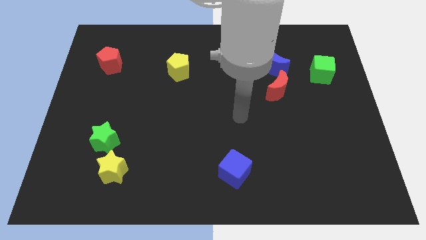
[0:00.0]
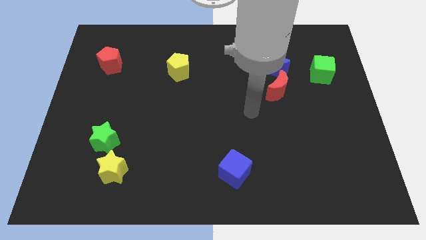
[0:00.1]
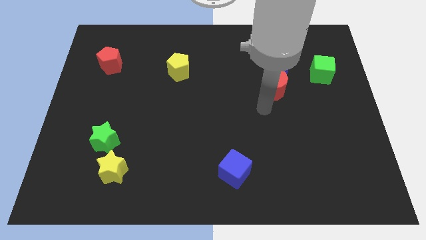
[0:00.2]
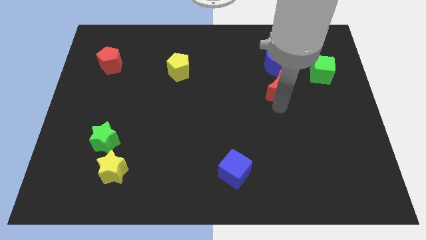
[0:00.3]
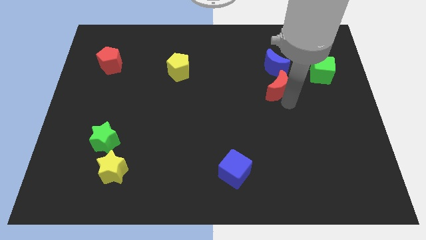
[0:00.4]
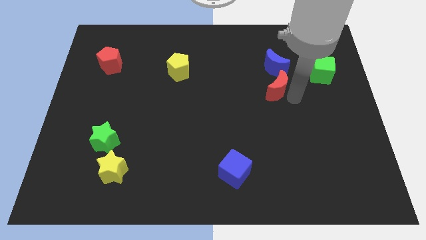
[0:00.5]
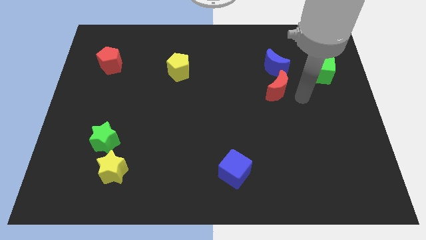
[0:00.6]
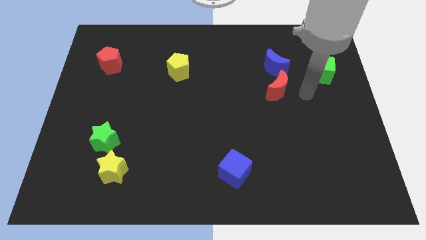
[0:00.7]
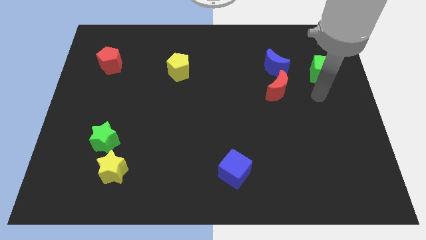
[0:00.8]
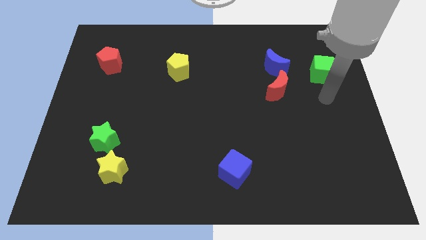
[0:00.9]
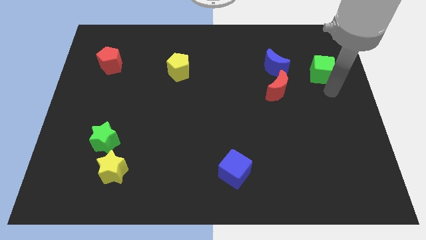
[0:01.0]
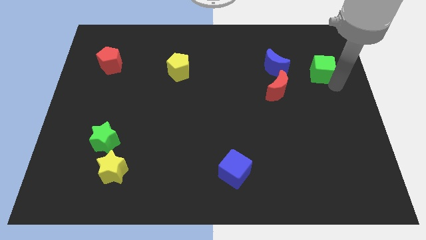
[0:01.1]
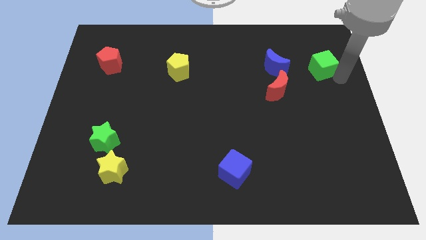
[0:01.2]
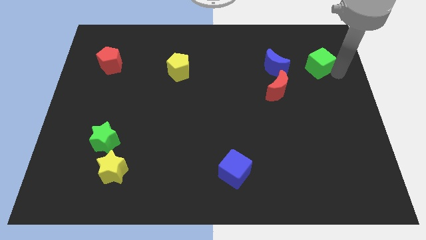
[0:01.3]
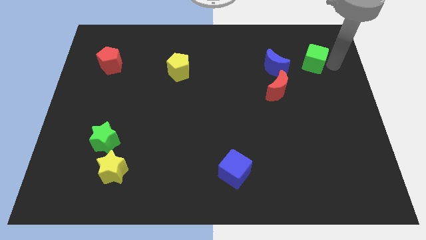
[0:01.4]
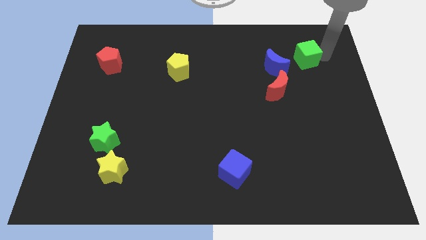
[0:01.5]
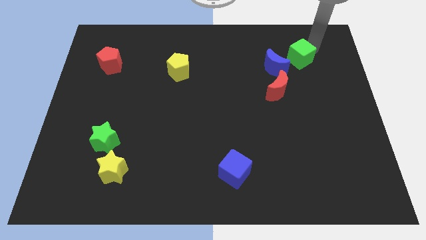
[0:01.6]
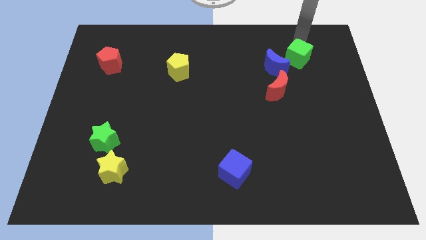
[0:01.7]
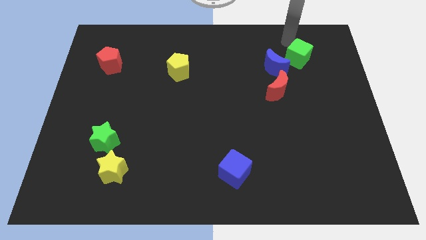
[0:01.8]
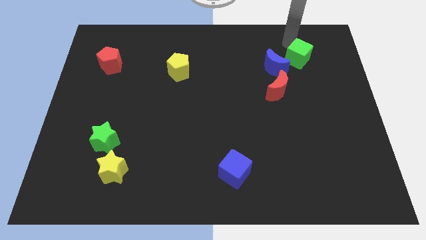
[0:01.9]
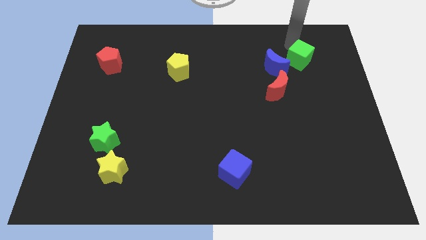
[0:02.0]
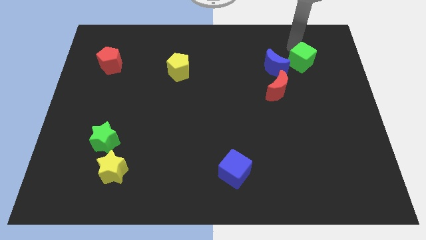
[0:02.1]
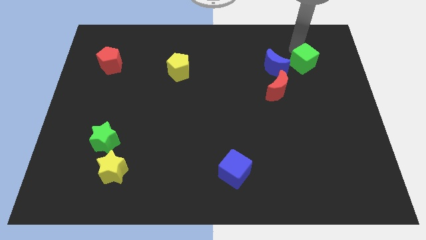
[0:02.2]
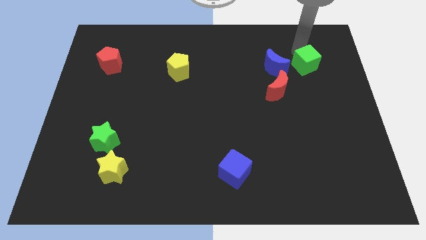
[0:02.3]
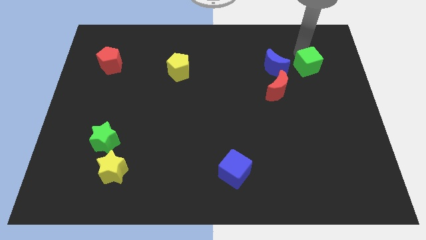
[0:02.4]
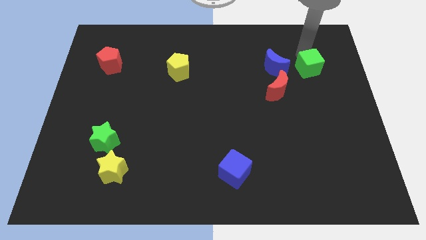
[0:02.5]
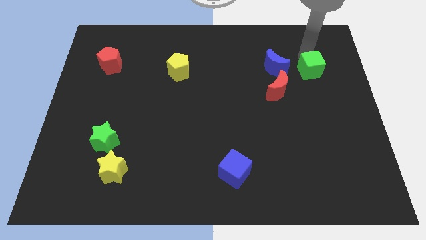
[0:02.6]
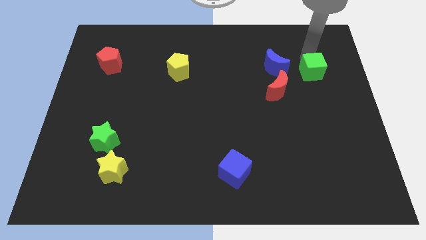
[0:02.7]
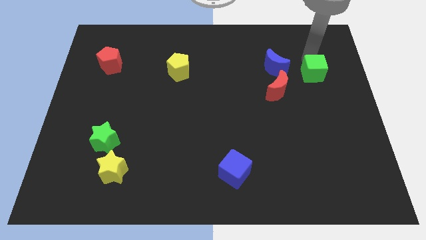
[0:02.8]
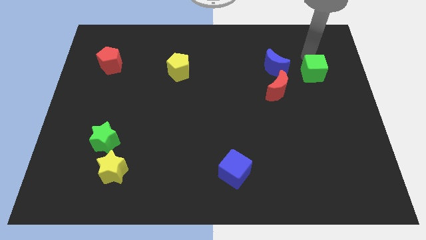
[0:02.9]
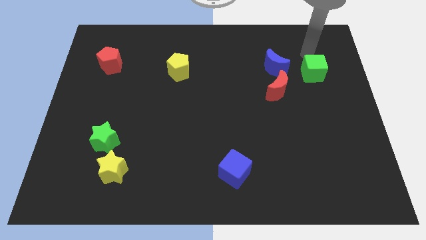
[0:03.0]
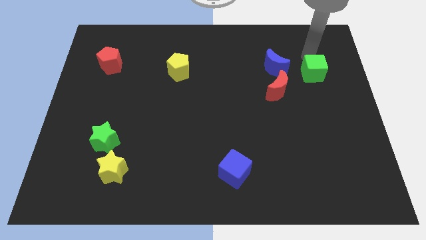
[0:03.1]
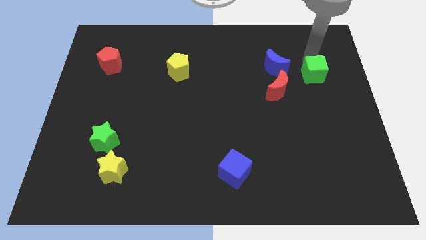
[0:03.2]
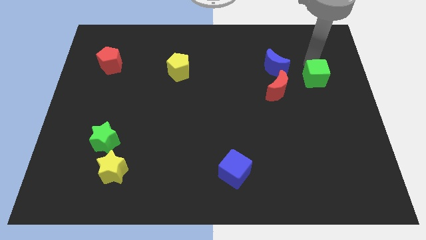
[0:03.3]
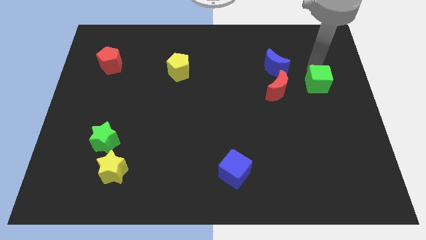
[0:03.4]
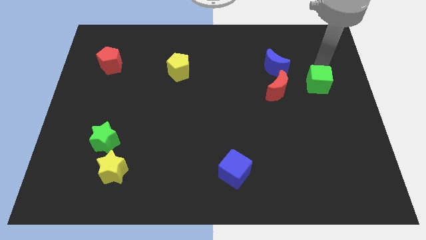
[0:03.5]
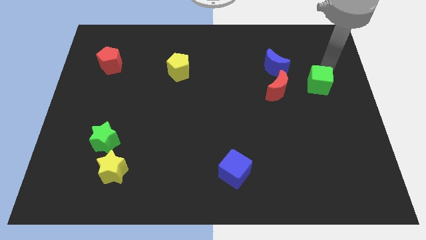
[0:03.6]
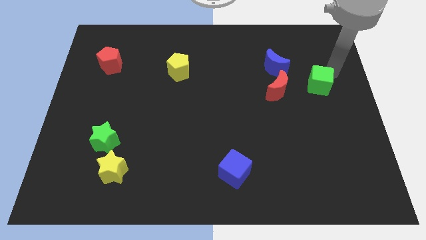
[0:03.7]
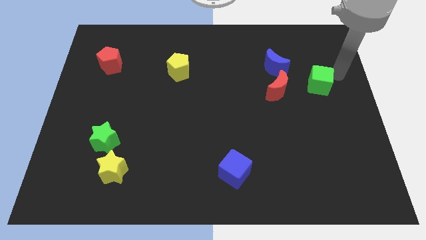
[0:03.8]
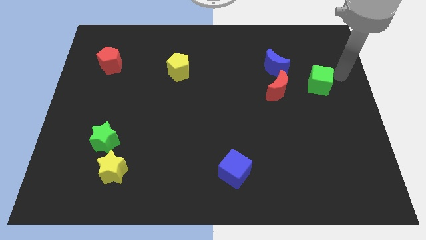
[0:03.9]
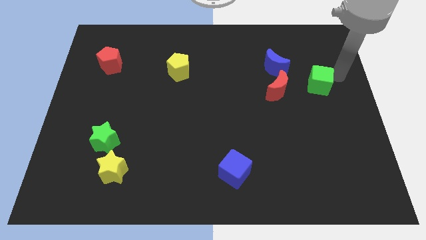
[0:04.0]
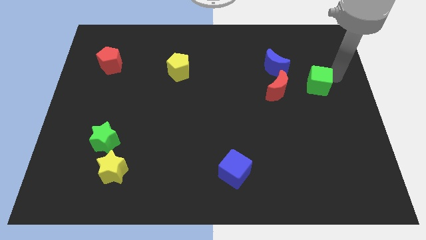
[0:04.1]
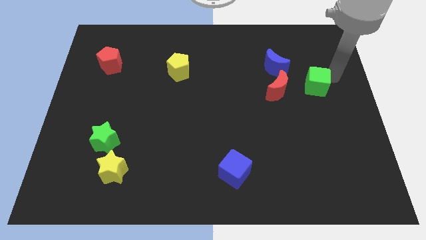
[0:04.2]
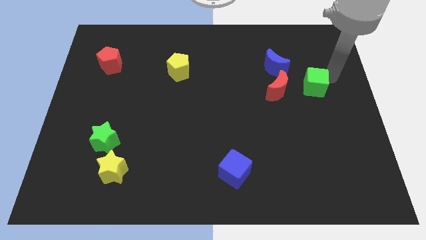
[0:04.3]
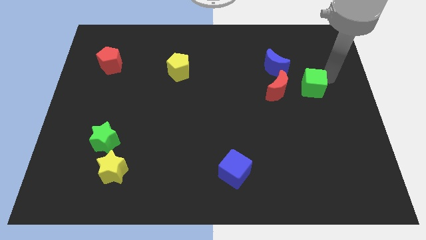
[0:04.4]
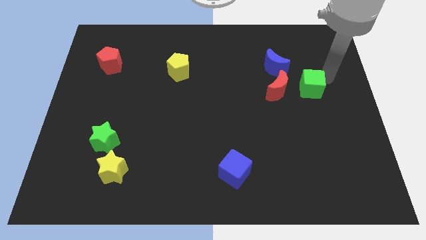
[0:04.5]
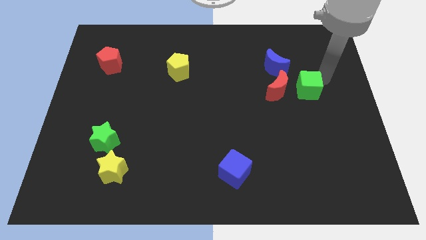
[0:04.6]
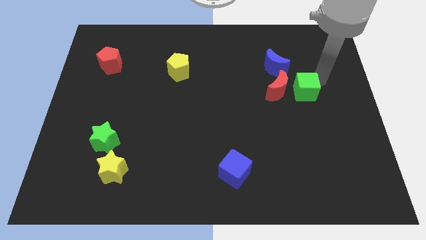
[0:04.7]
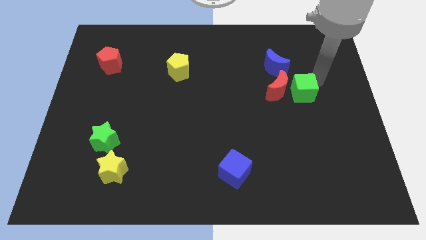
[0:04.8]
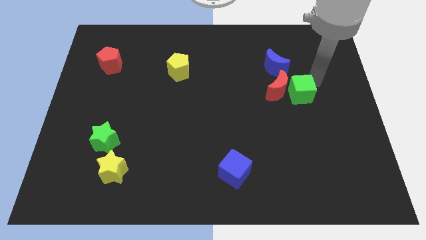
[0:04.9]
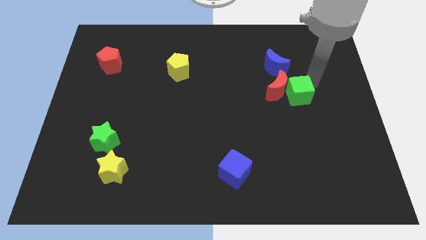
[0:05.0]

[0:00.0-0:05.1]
slide the green cube to the bottom side of the blue moon

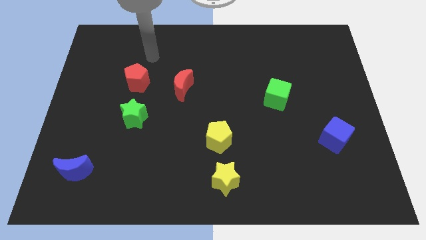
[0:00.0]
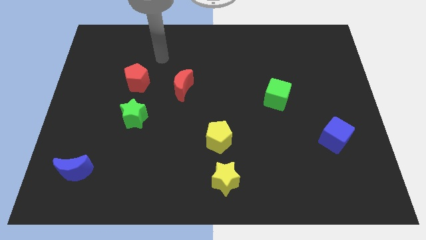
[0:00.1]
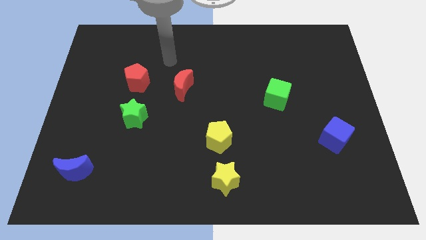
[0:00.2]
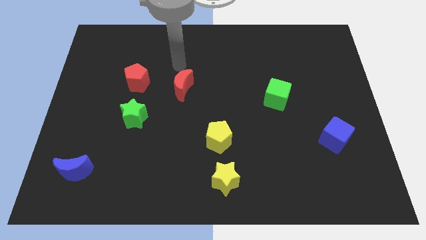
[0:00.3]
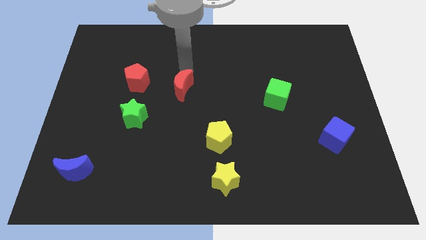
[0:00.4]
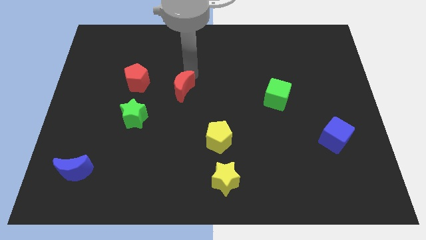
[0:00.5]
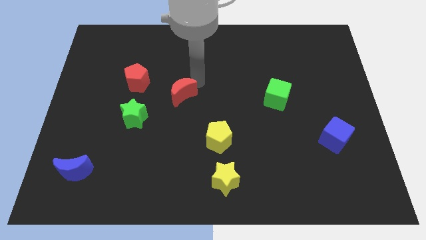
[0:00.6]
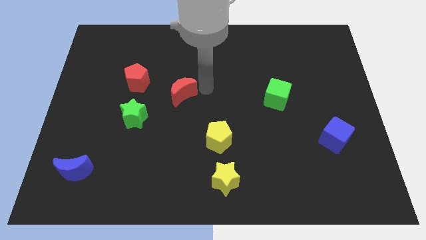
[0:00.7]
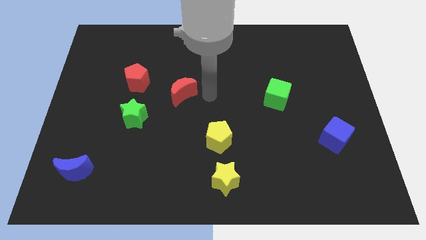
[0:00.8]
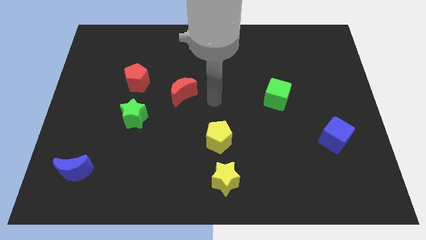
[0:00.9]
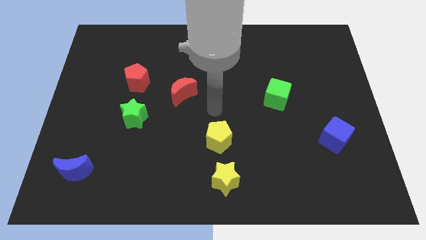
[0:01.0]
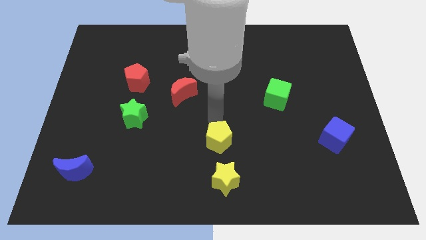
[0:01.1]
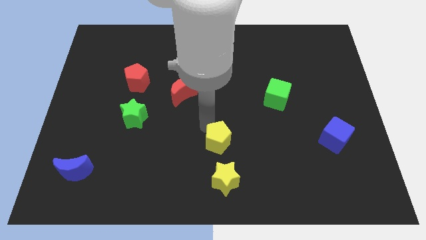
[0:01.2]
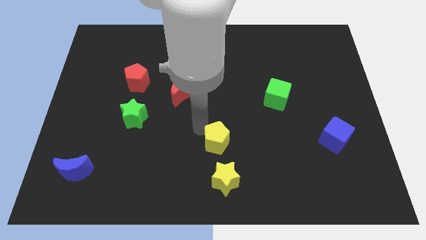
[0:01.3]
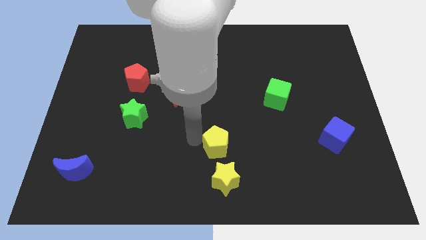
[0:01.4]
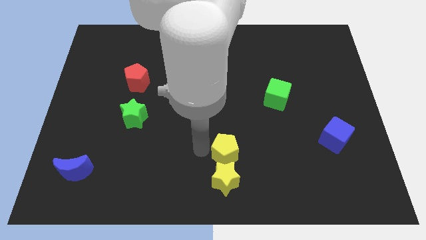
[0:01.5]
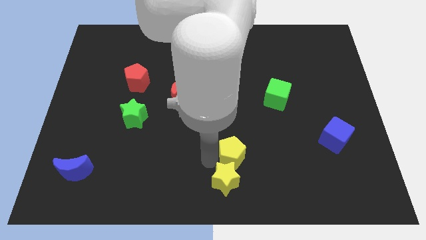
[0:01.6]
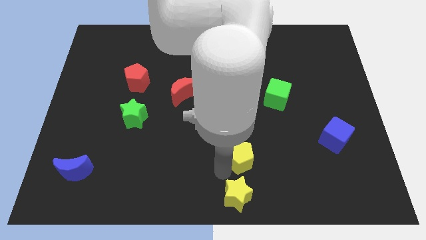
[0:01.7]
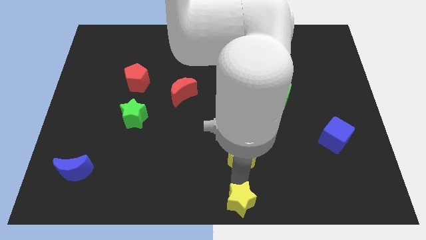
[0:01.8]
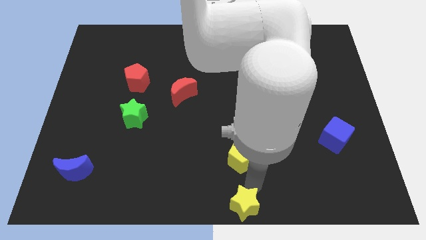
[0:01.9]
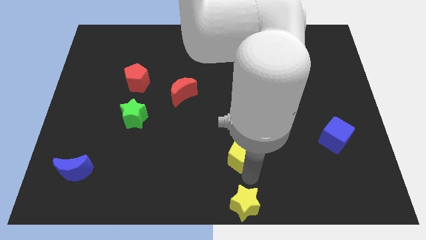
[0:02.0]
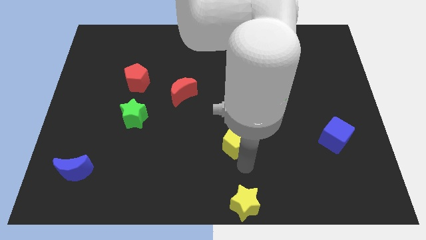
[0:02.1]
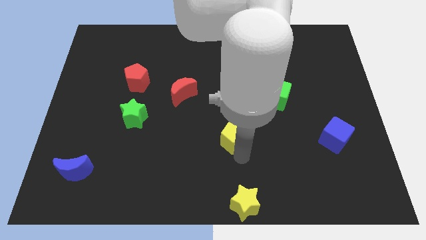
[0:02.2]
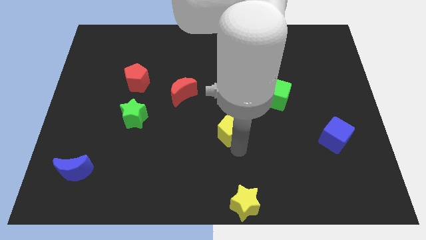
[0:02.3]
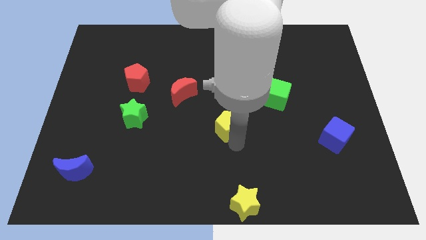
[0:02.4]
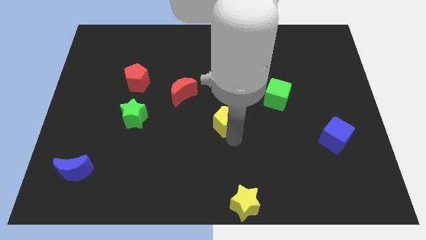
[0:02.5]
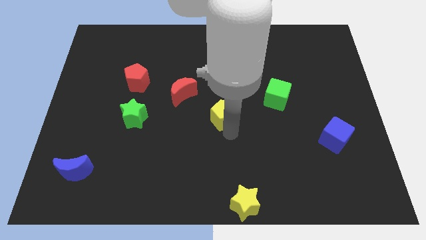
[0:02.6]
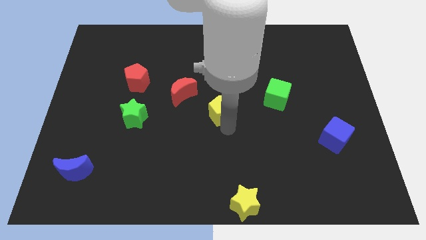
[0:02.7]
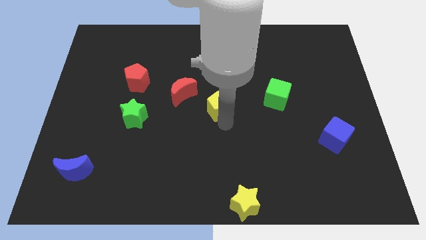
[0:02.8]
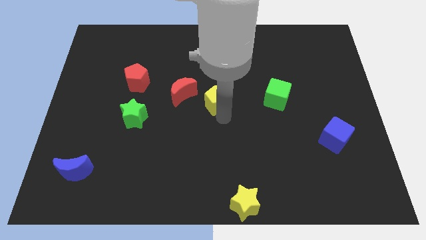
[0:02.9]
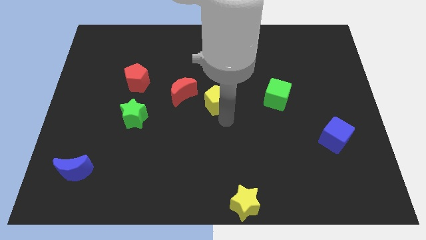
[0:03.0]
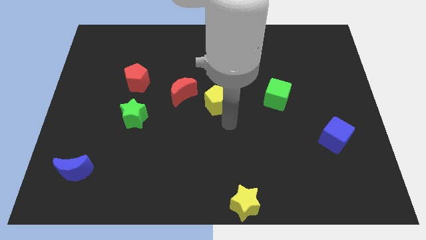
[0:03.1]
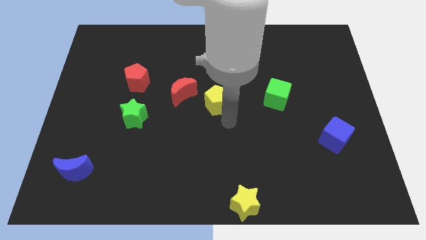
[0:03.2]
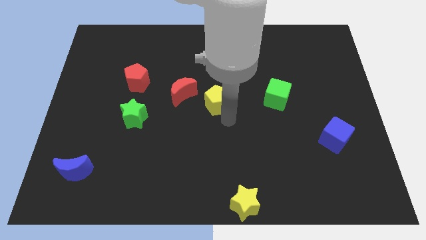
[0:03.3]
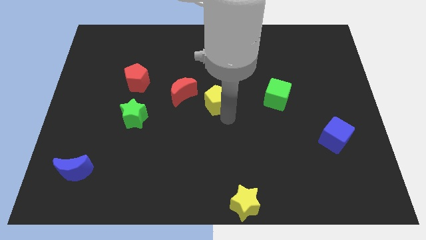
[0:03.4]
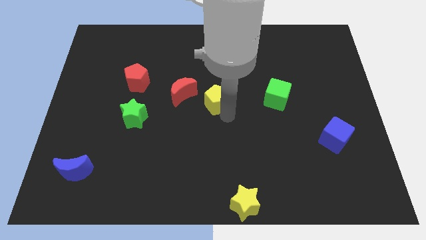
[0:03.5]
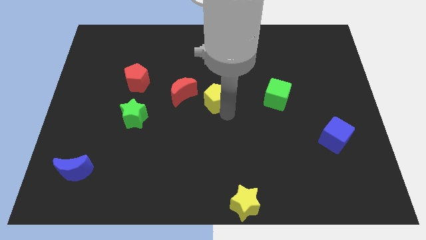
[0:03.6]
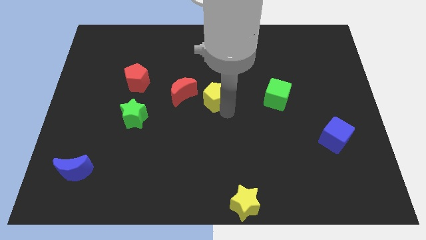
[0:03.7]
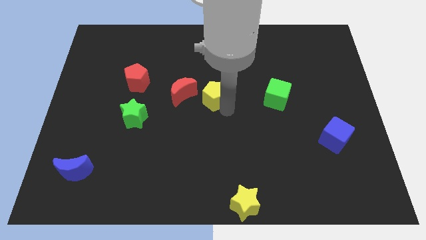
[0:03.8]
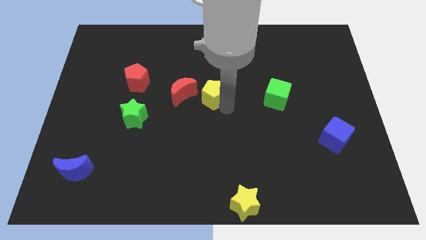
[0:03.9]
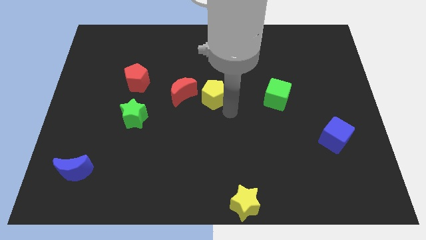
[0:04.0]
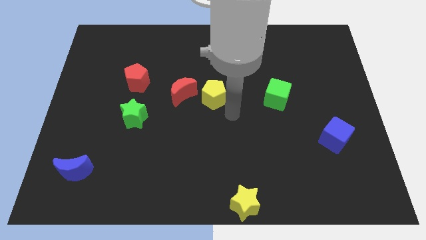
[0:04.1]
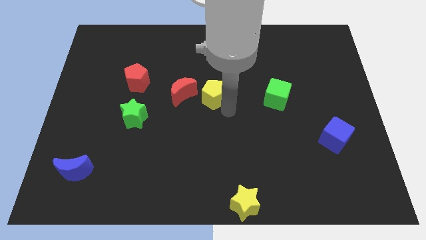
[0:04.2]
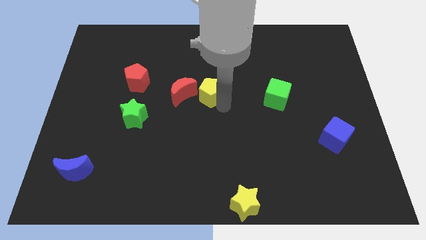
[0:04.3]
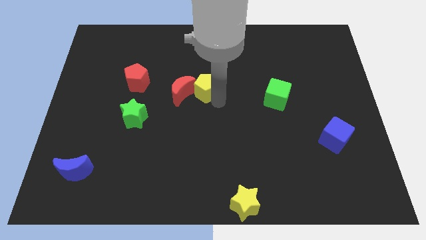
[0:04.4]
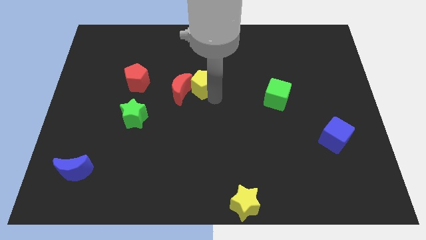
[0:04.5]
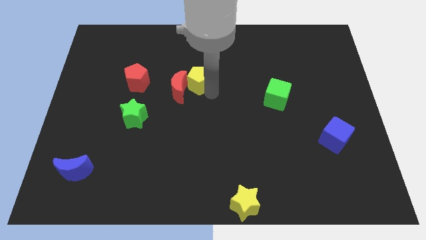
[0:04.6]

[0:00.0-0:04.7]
slide the yellow pentagon to the right of the red pentagon
